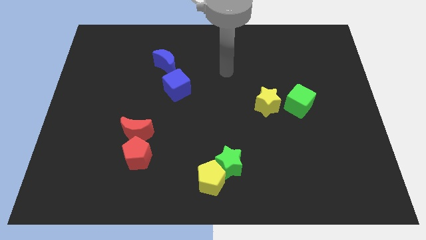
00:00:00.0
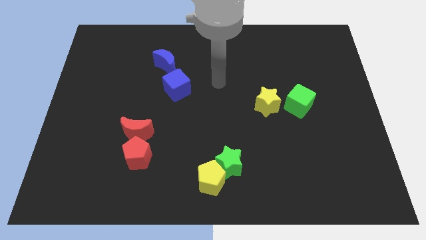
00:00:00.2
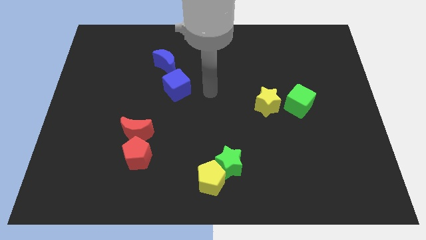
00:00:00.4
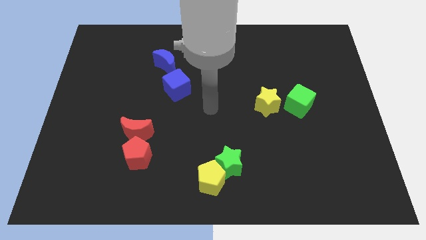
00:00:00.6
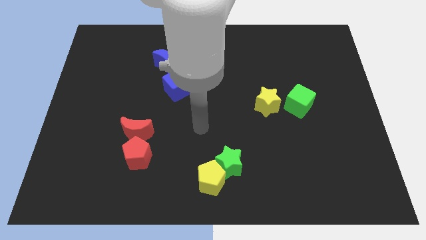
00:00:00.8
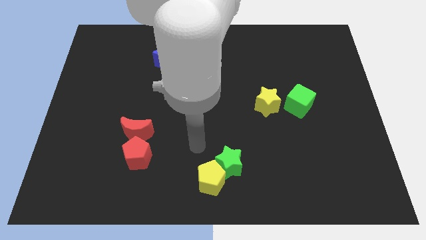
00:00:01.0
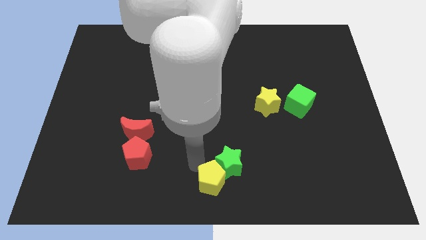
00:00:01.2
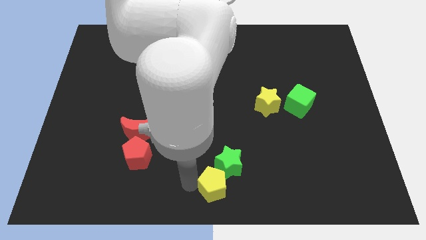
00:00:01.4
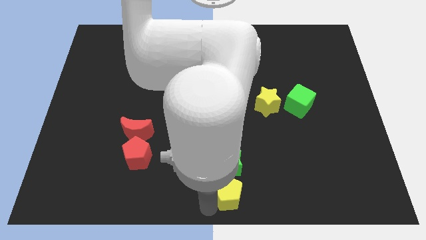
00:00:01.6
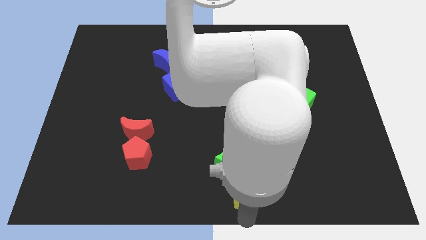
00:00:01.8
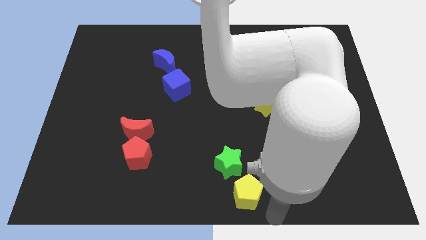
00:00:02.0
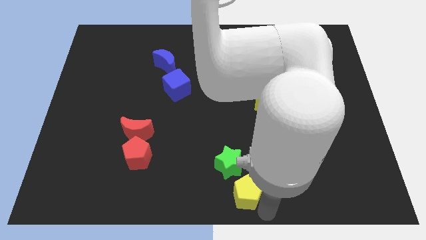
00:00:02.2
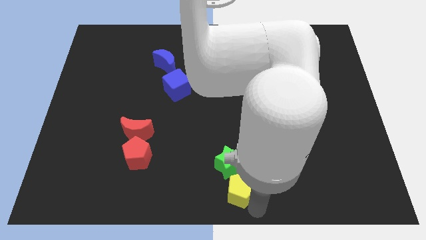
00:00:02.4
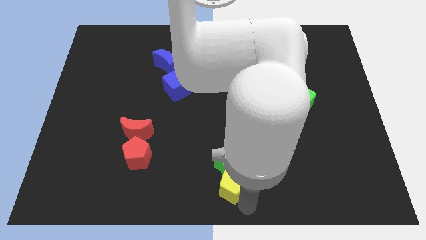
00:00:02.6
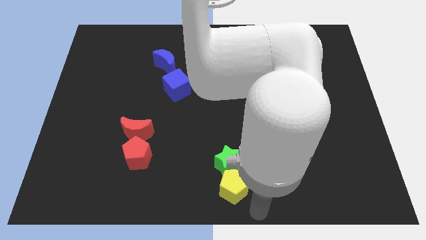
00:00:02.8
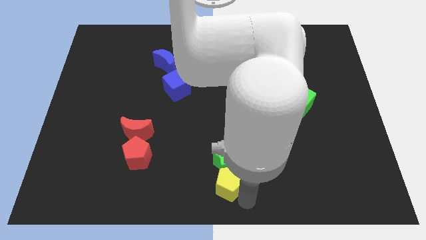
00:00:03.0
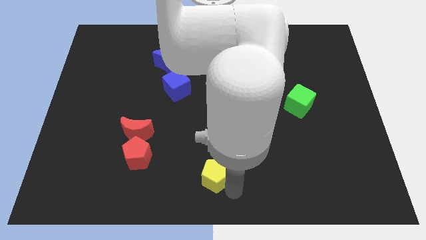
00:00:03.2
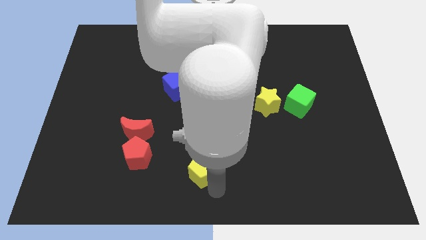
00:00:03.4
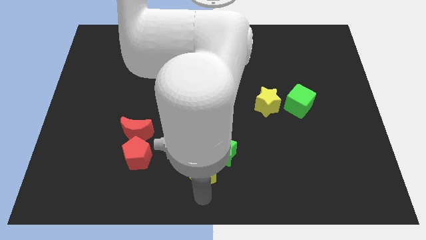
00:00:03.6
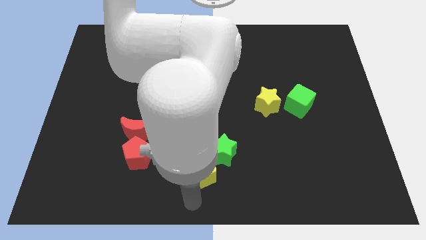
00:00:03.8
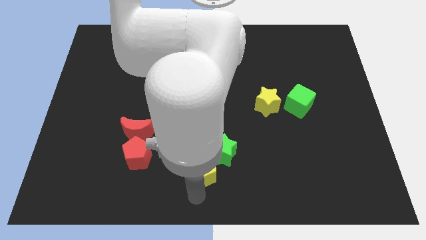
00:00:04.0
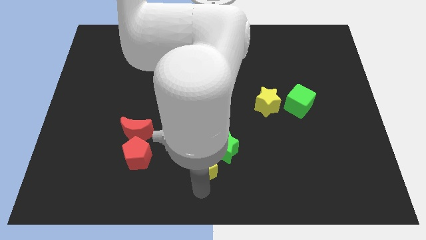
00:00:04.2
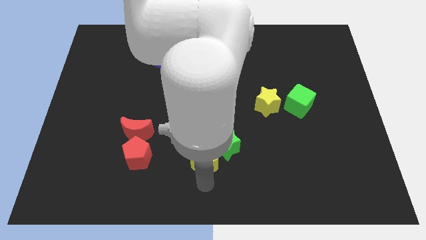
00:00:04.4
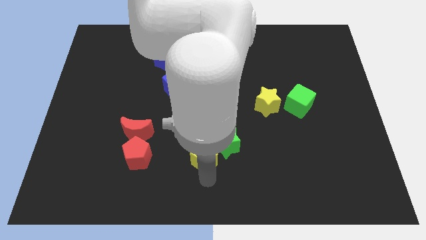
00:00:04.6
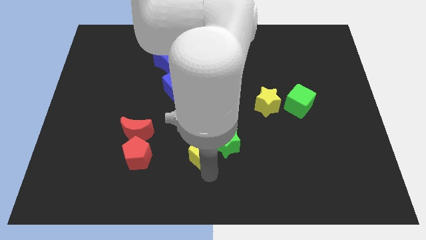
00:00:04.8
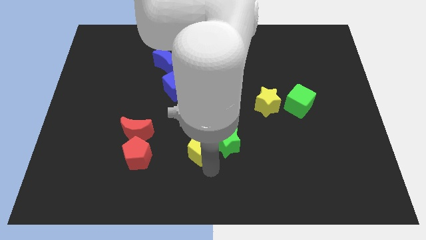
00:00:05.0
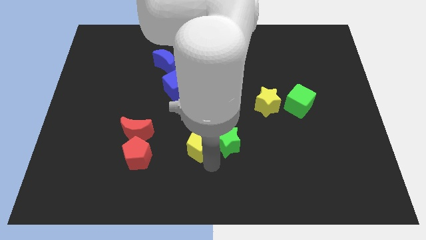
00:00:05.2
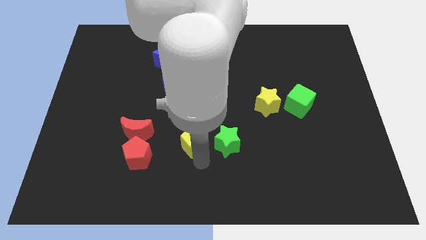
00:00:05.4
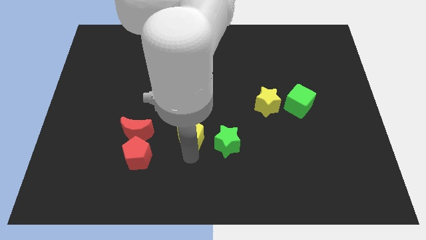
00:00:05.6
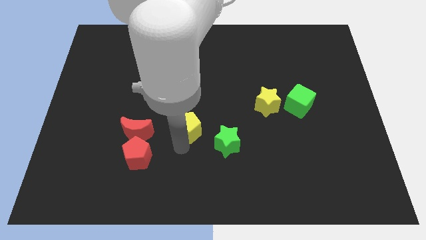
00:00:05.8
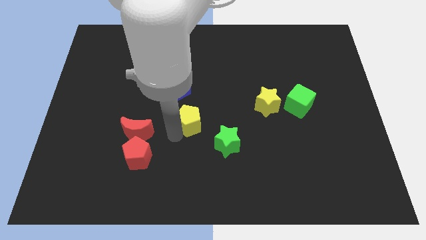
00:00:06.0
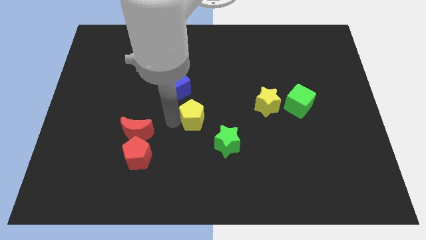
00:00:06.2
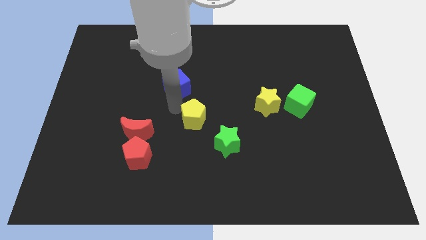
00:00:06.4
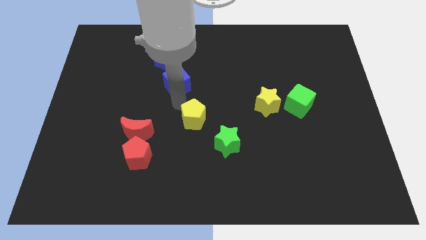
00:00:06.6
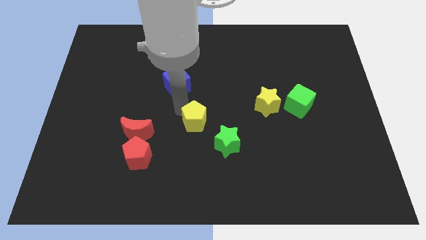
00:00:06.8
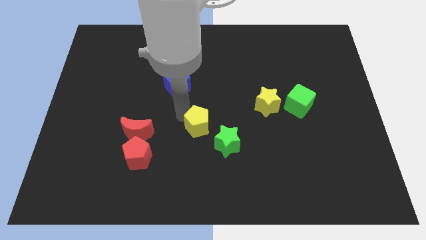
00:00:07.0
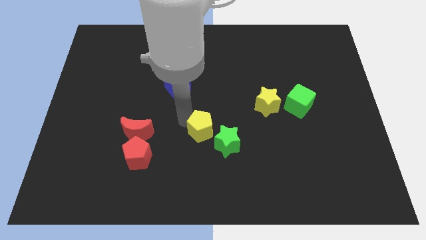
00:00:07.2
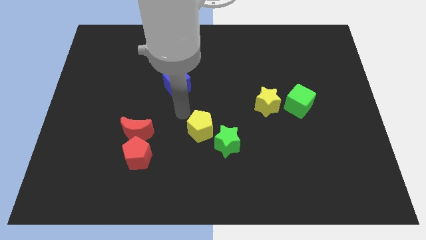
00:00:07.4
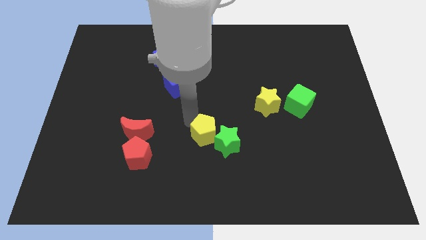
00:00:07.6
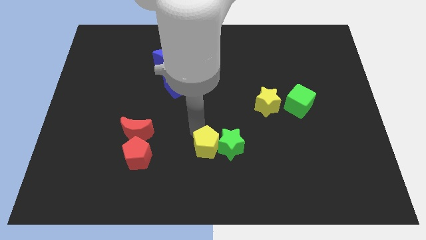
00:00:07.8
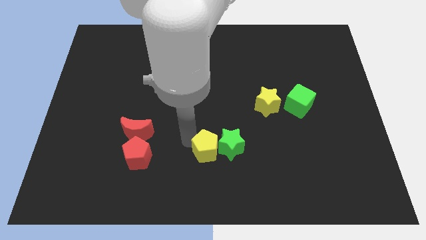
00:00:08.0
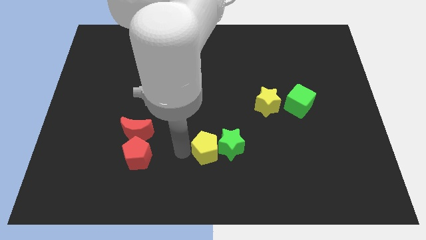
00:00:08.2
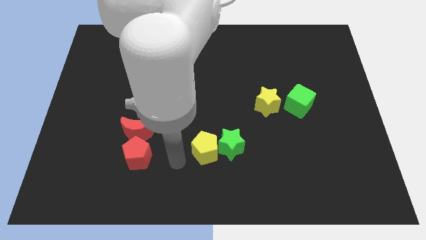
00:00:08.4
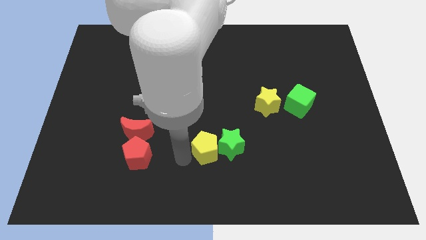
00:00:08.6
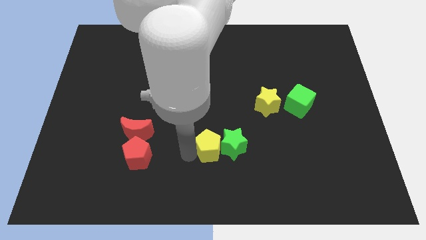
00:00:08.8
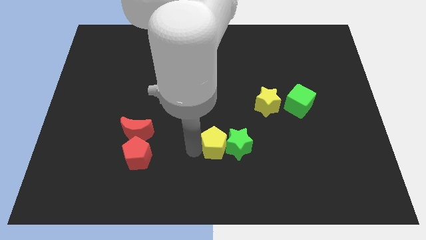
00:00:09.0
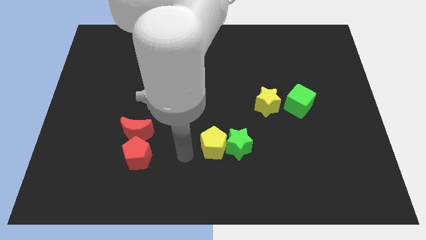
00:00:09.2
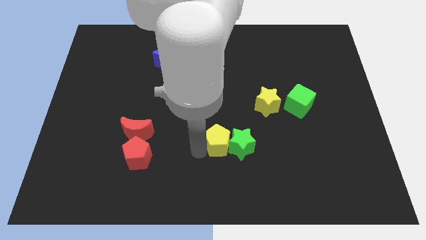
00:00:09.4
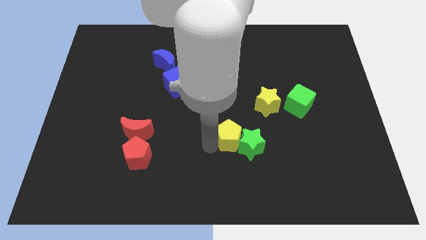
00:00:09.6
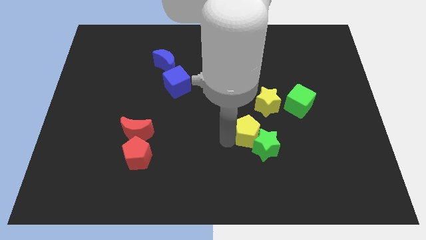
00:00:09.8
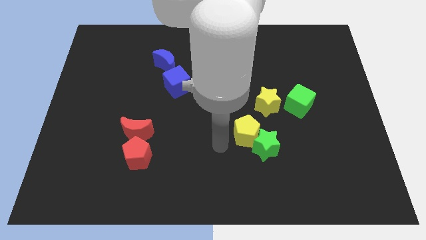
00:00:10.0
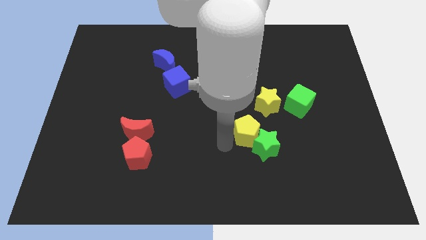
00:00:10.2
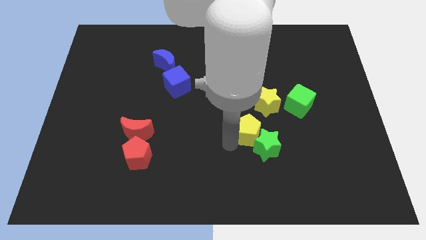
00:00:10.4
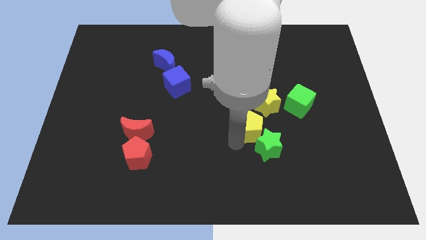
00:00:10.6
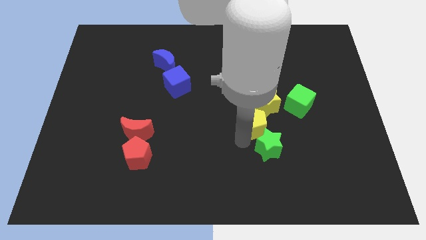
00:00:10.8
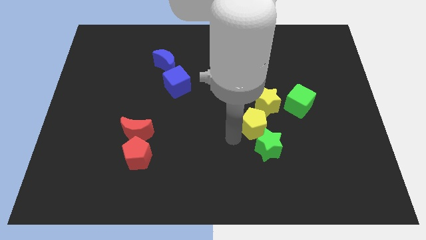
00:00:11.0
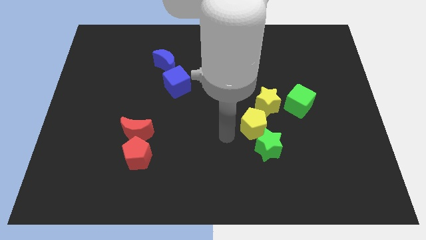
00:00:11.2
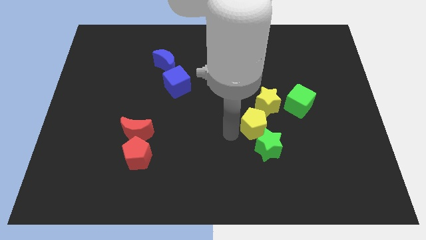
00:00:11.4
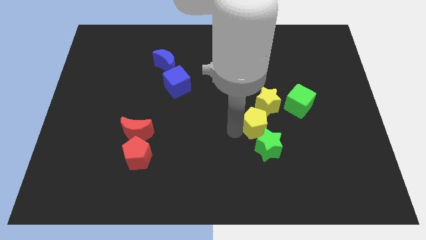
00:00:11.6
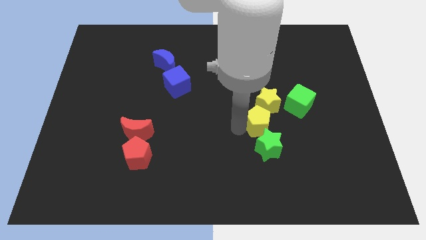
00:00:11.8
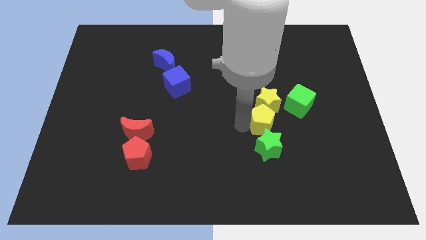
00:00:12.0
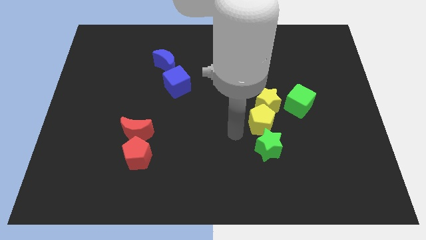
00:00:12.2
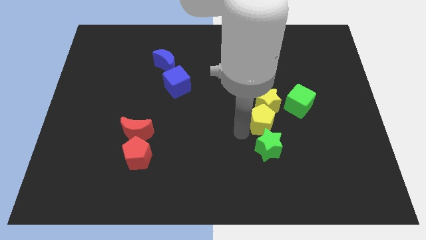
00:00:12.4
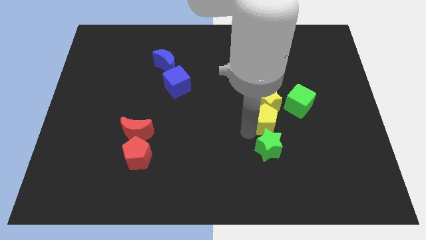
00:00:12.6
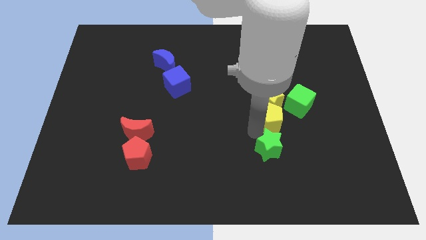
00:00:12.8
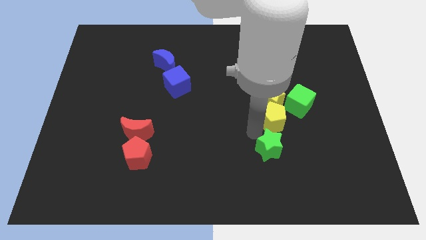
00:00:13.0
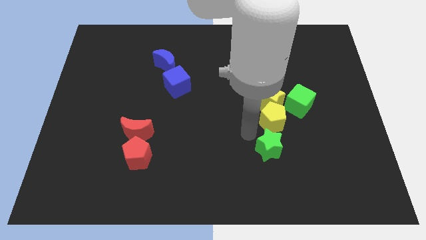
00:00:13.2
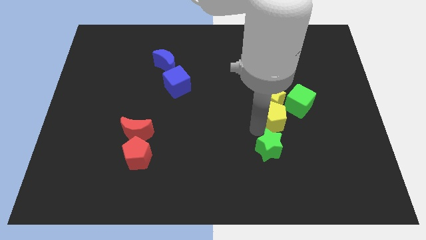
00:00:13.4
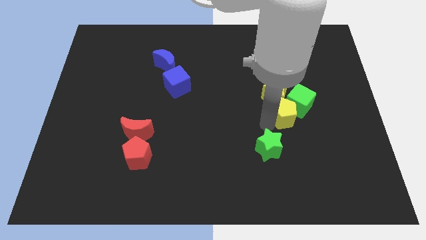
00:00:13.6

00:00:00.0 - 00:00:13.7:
move the yellow pentagon to the green cube
